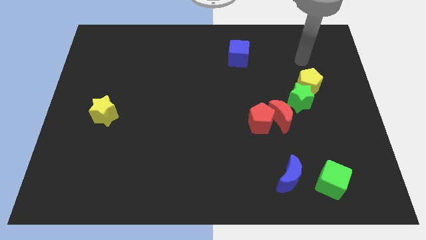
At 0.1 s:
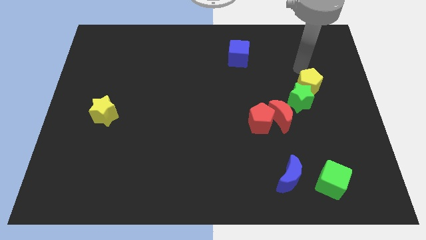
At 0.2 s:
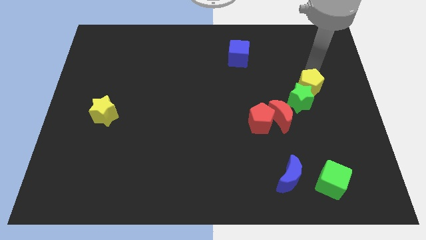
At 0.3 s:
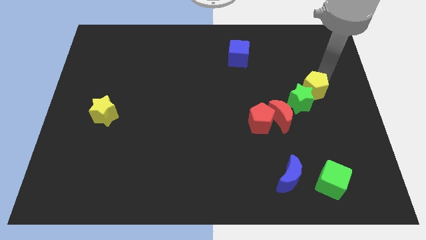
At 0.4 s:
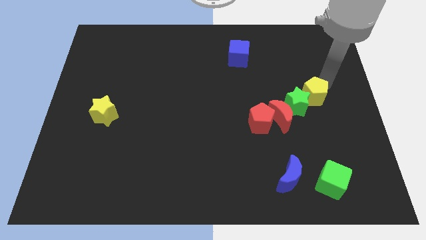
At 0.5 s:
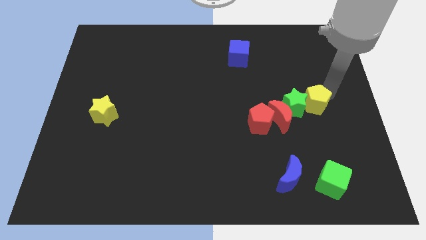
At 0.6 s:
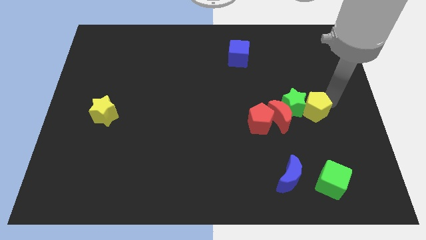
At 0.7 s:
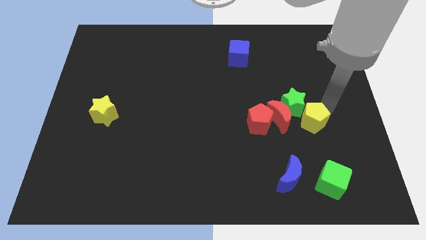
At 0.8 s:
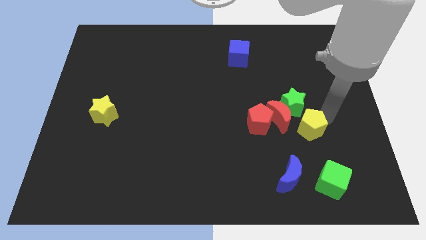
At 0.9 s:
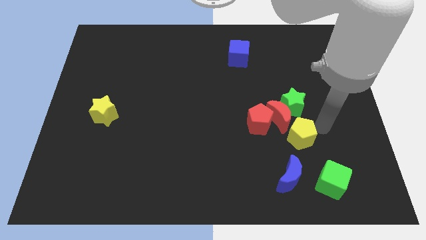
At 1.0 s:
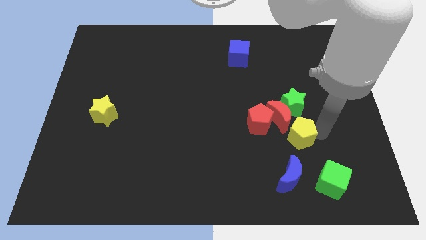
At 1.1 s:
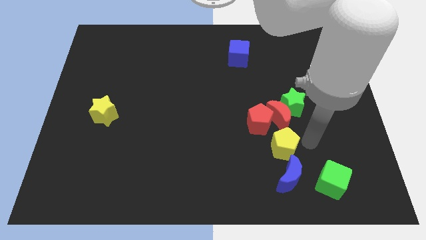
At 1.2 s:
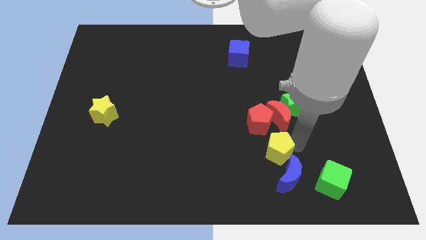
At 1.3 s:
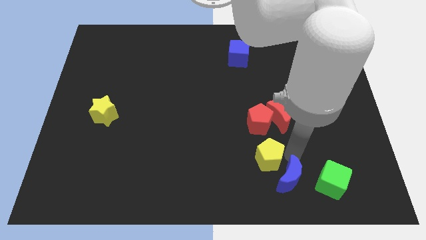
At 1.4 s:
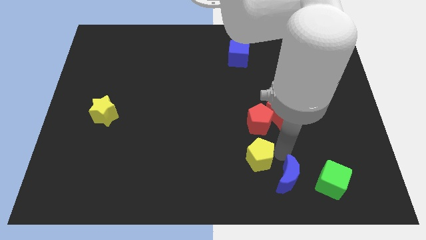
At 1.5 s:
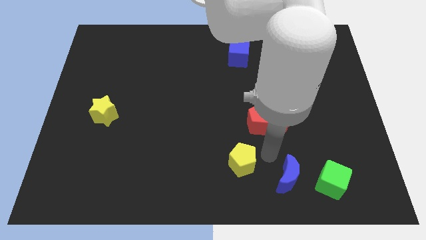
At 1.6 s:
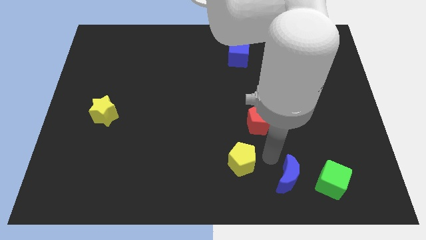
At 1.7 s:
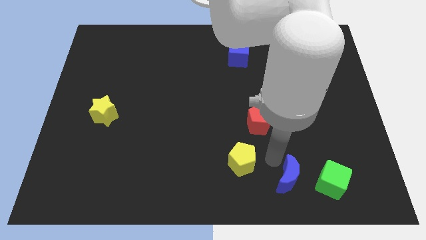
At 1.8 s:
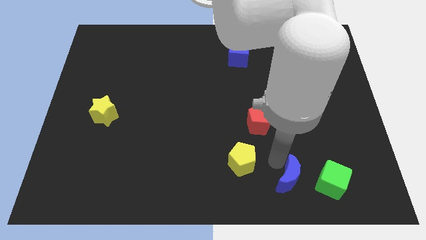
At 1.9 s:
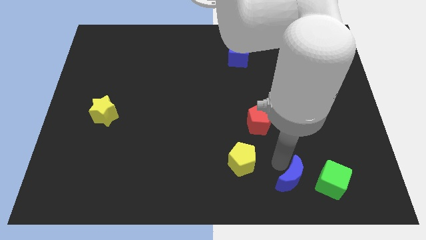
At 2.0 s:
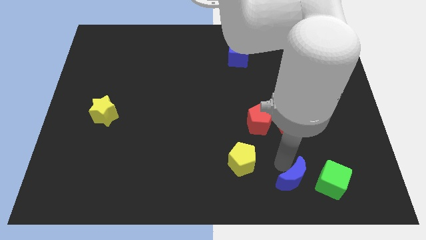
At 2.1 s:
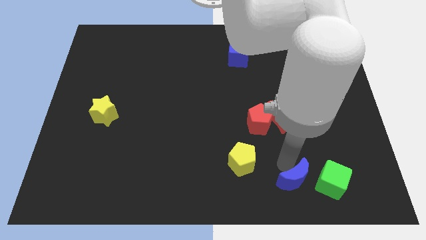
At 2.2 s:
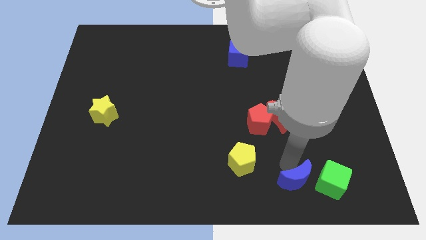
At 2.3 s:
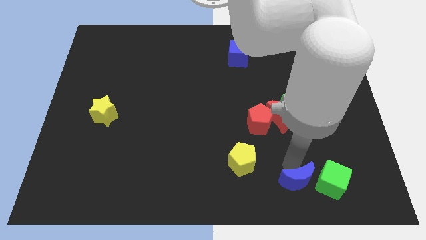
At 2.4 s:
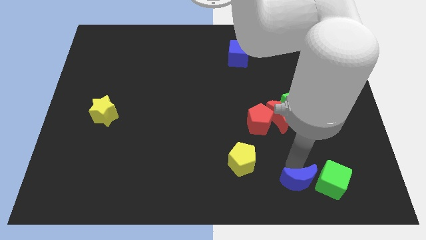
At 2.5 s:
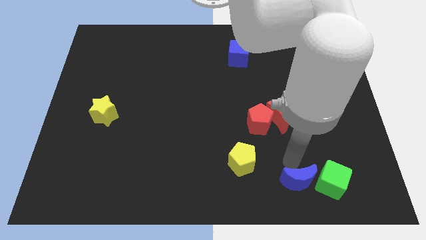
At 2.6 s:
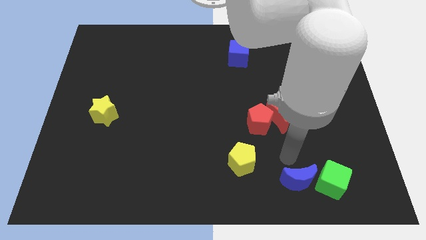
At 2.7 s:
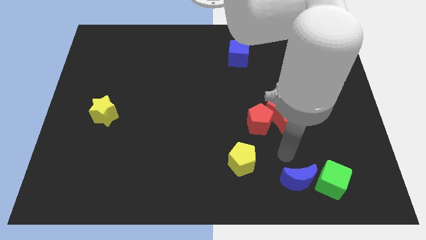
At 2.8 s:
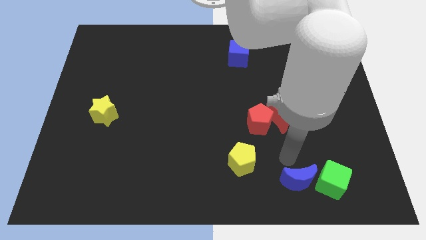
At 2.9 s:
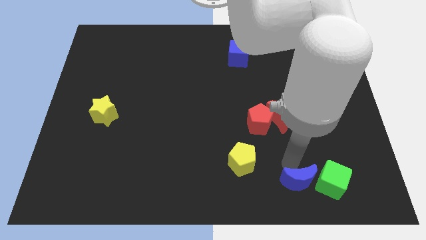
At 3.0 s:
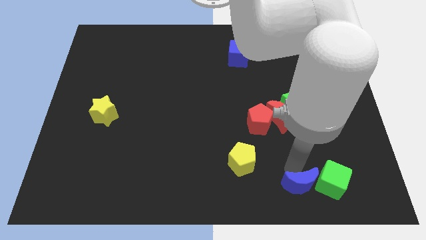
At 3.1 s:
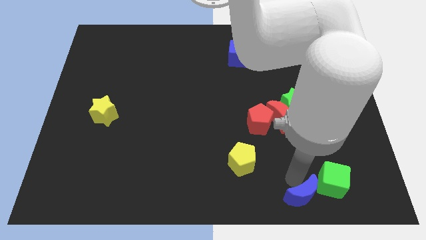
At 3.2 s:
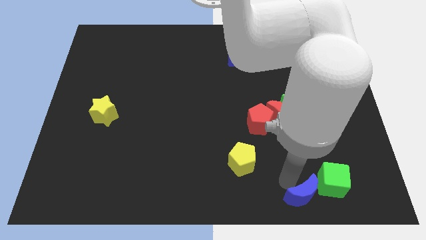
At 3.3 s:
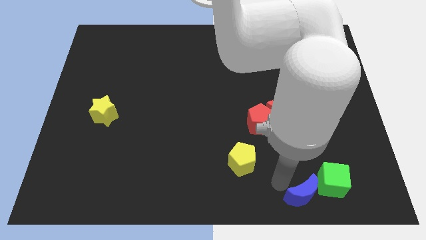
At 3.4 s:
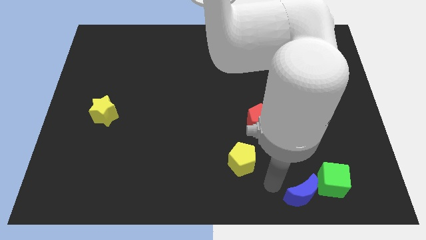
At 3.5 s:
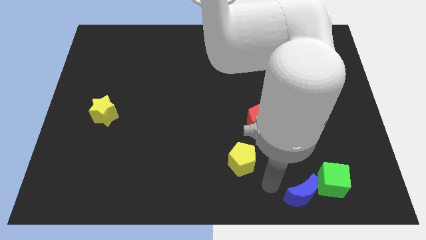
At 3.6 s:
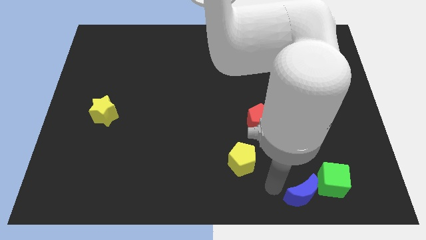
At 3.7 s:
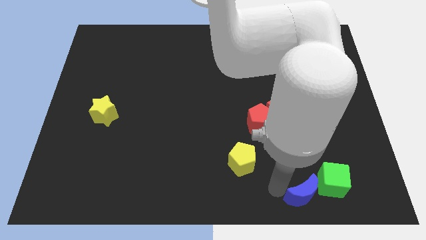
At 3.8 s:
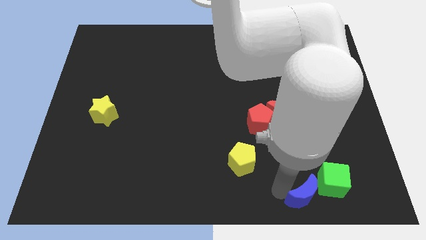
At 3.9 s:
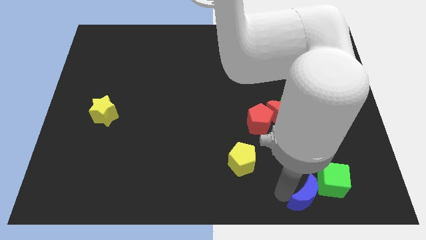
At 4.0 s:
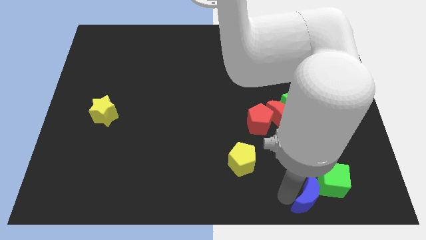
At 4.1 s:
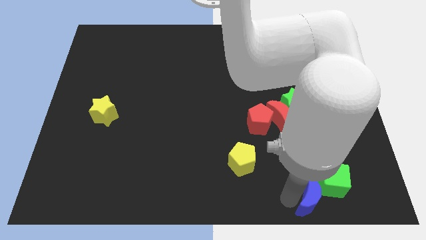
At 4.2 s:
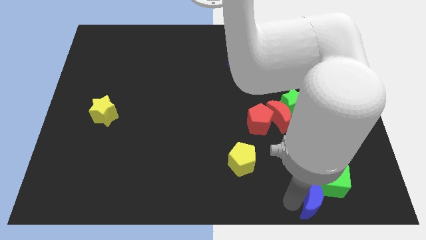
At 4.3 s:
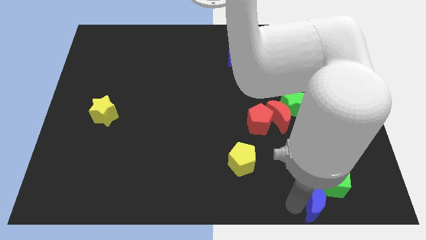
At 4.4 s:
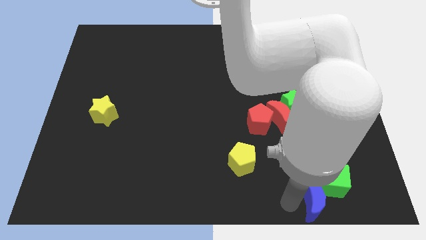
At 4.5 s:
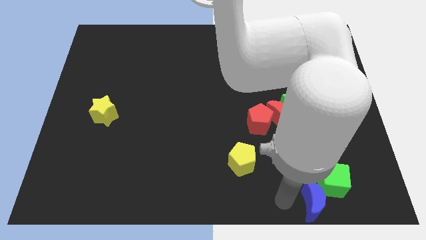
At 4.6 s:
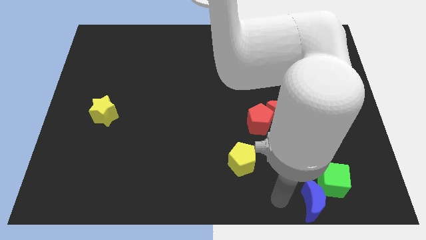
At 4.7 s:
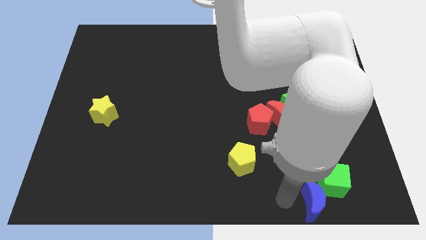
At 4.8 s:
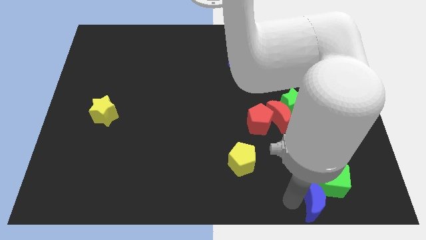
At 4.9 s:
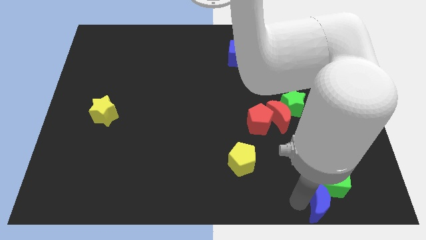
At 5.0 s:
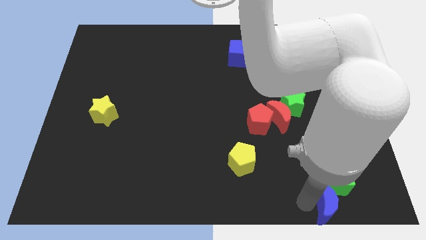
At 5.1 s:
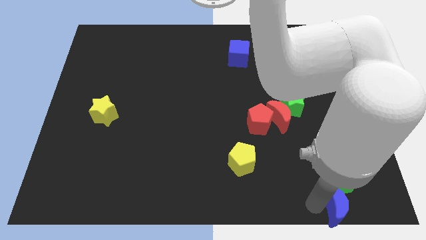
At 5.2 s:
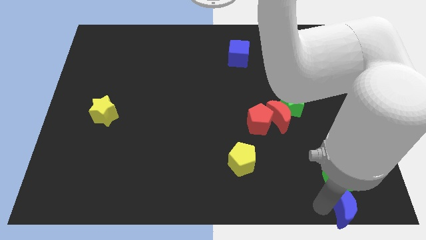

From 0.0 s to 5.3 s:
slide the blue moon to the bottom right

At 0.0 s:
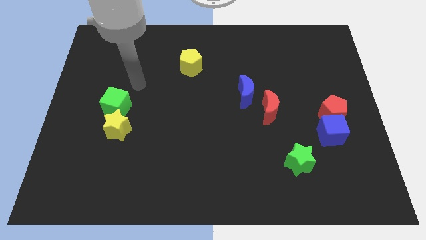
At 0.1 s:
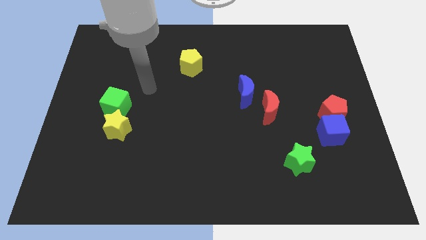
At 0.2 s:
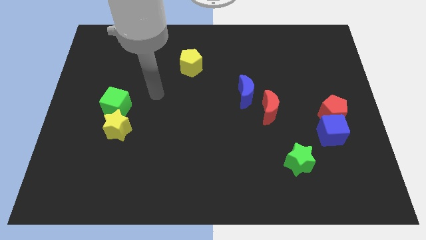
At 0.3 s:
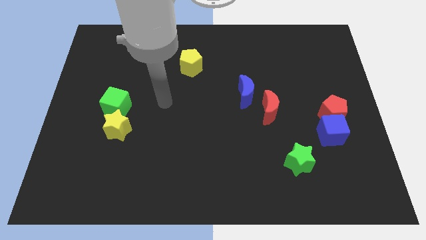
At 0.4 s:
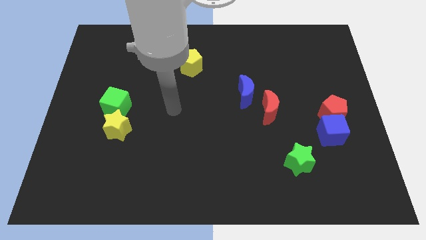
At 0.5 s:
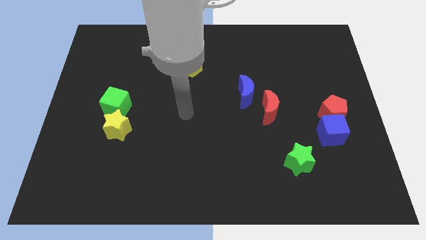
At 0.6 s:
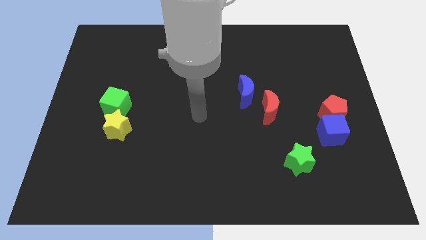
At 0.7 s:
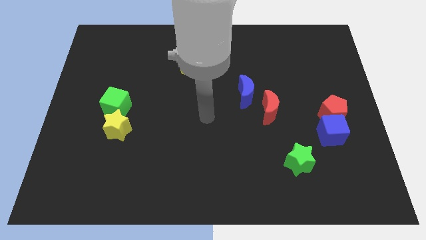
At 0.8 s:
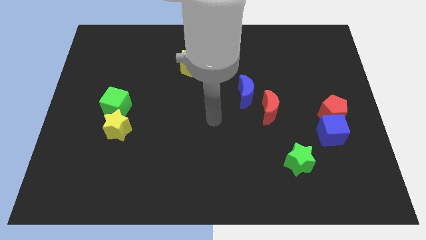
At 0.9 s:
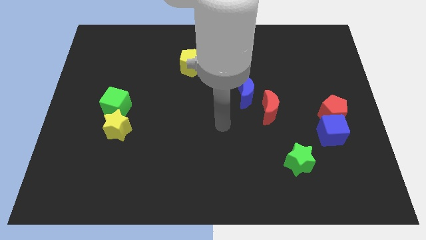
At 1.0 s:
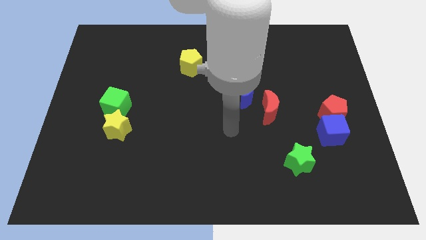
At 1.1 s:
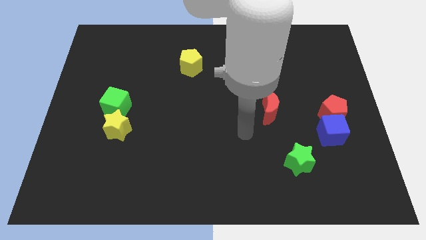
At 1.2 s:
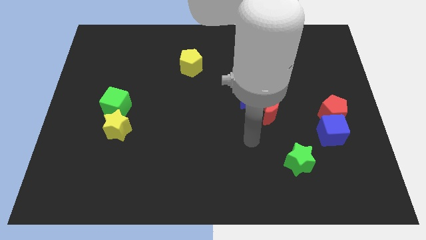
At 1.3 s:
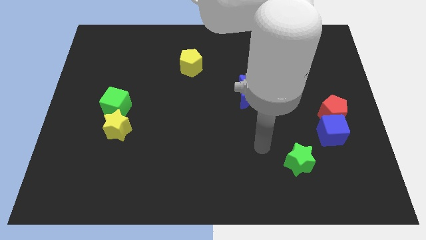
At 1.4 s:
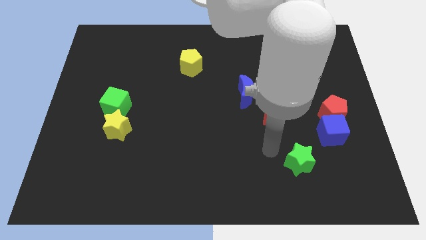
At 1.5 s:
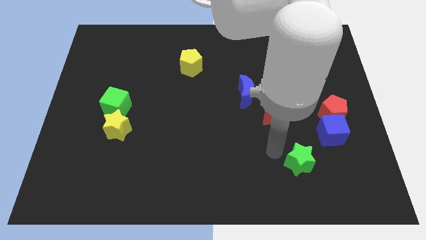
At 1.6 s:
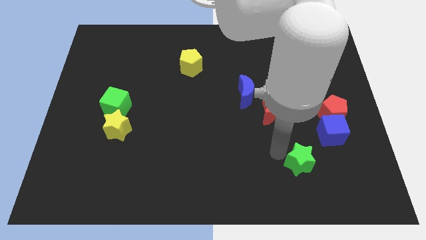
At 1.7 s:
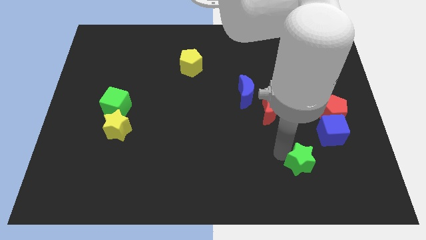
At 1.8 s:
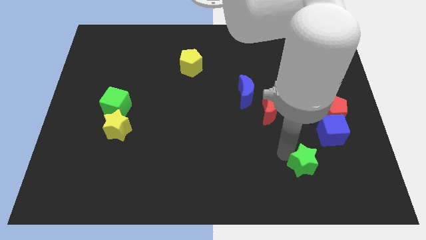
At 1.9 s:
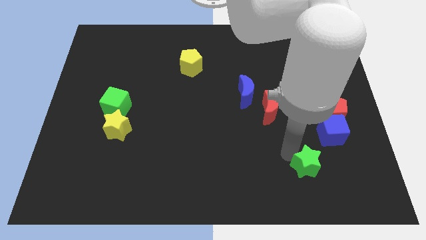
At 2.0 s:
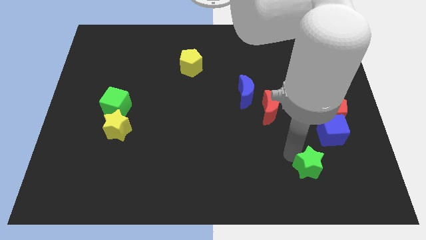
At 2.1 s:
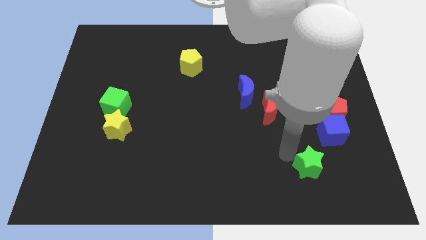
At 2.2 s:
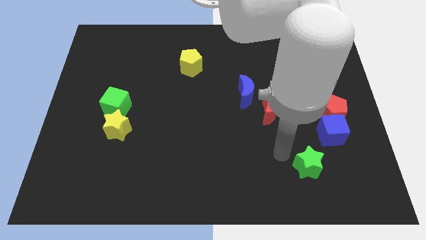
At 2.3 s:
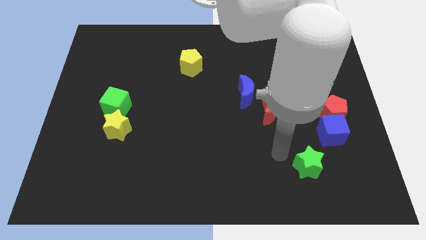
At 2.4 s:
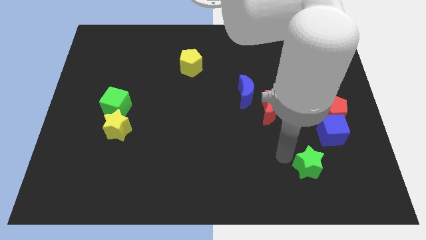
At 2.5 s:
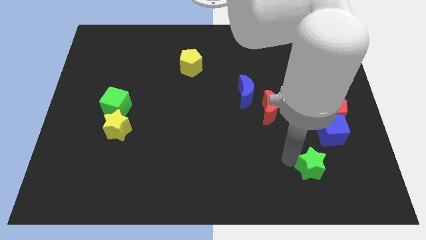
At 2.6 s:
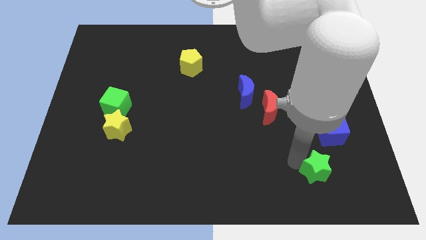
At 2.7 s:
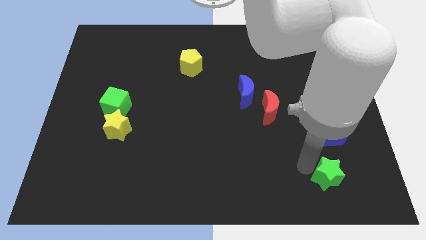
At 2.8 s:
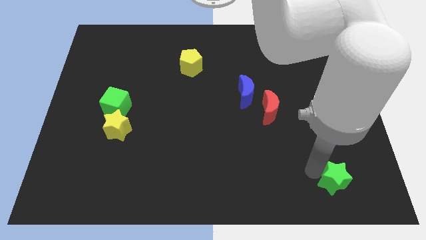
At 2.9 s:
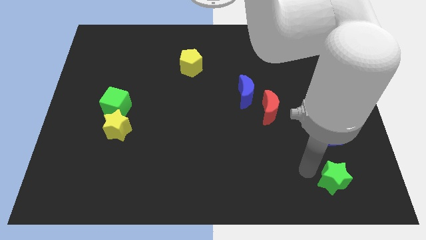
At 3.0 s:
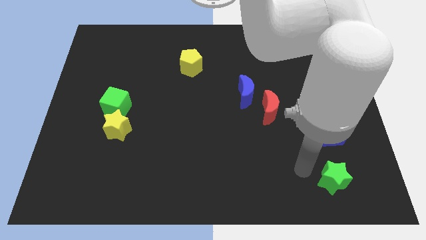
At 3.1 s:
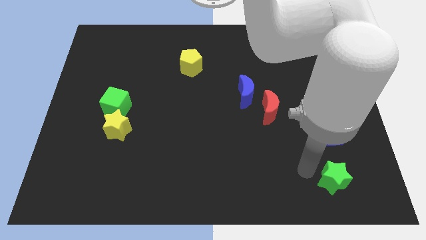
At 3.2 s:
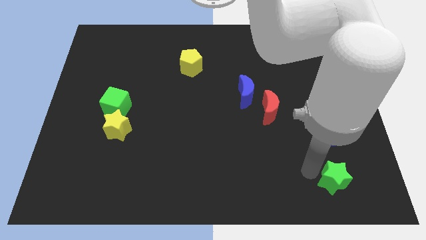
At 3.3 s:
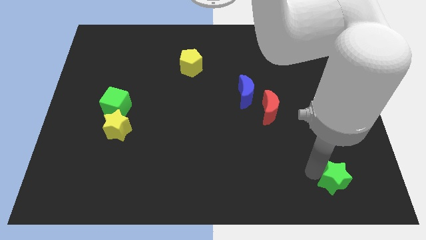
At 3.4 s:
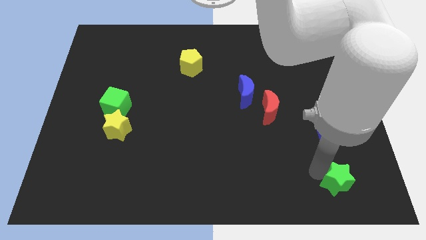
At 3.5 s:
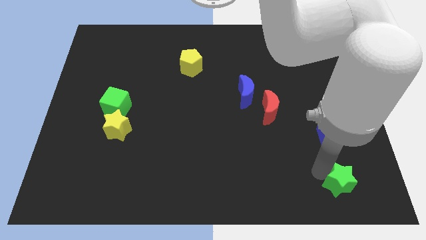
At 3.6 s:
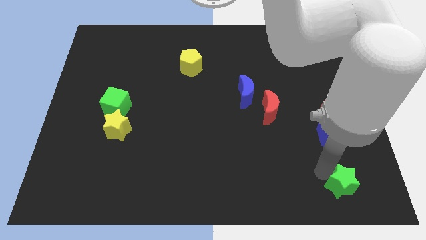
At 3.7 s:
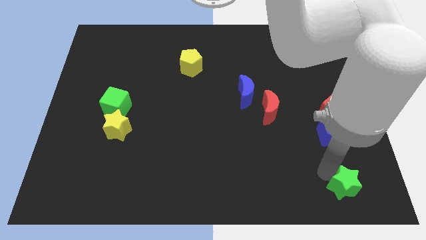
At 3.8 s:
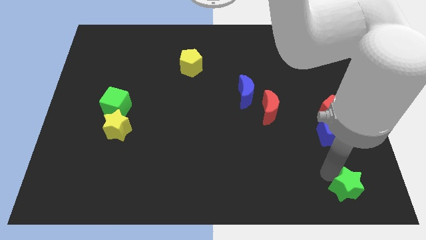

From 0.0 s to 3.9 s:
put the green star to the bottom right
